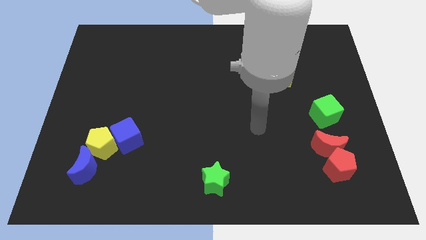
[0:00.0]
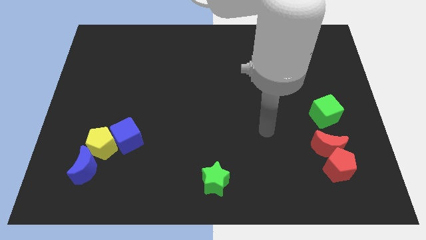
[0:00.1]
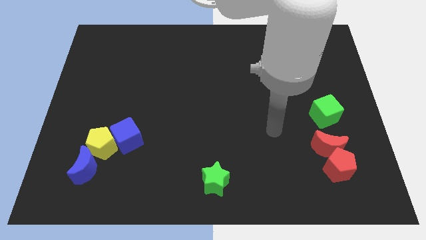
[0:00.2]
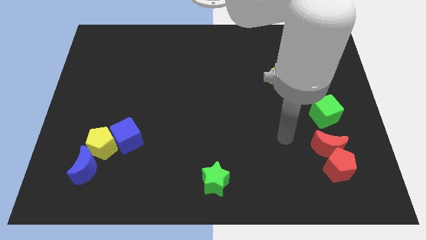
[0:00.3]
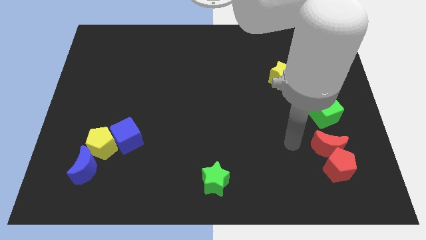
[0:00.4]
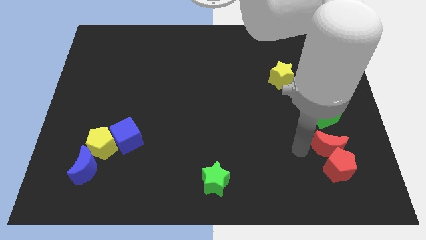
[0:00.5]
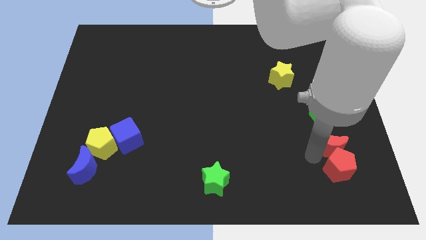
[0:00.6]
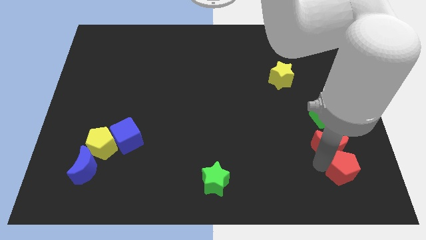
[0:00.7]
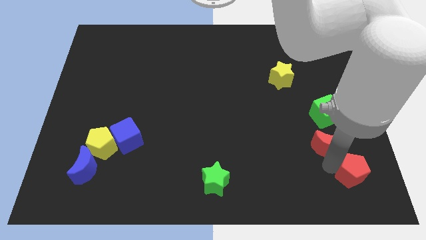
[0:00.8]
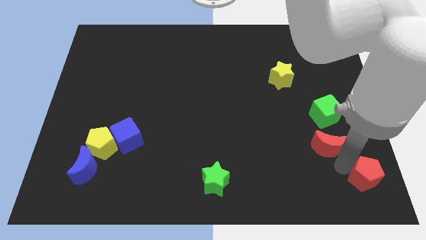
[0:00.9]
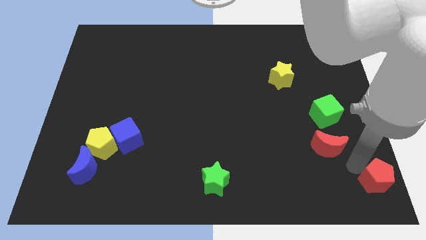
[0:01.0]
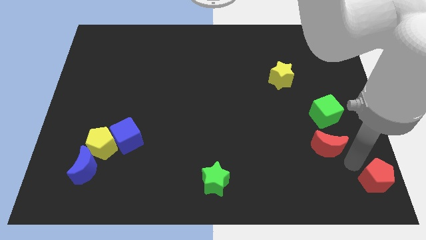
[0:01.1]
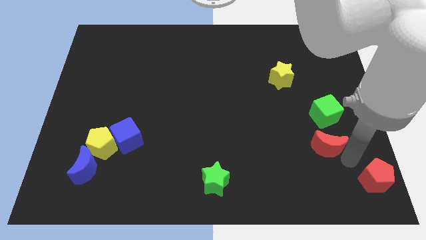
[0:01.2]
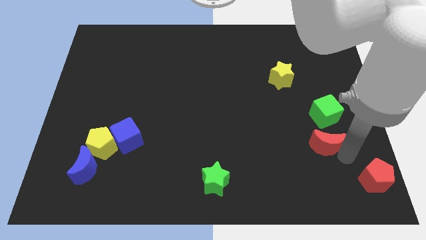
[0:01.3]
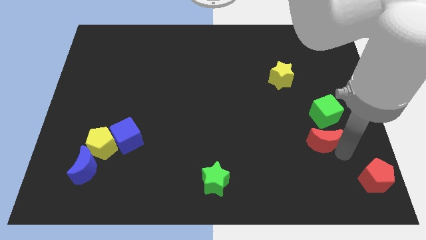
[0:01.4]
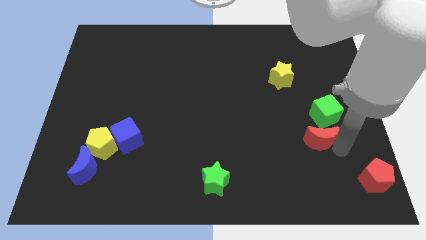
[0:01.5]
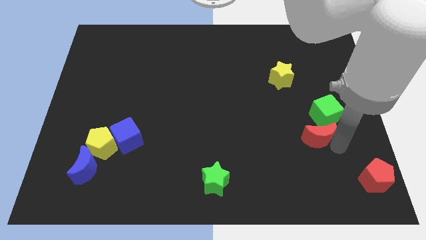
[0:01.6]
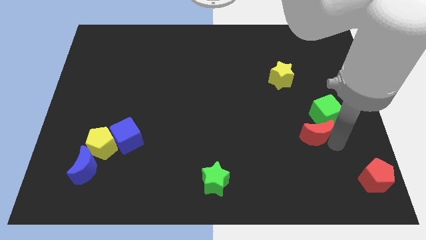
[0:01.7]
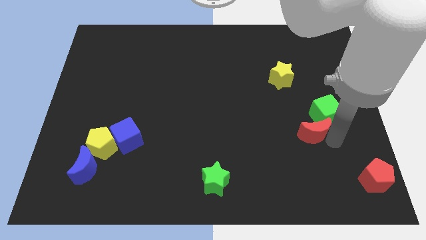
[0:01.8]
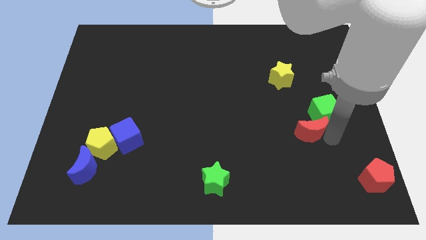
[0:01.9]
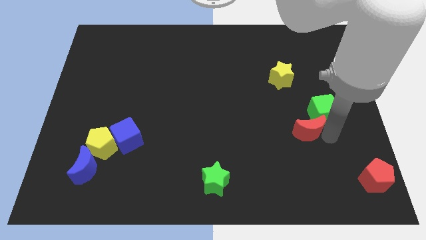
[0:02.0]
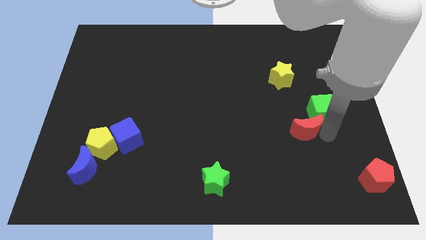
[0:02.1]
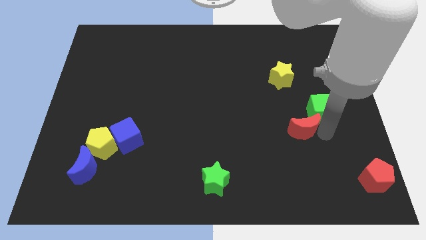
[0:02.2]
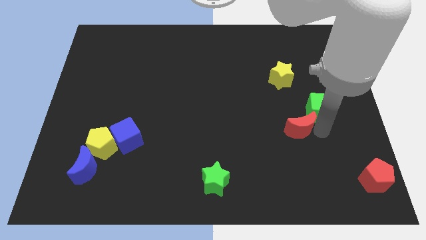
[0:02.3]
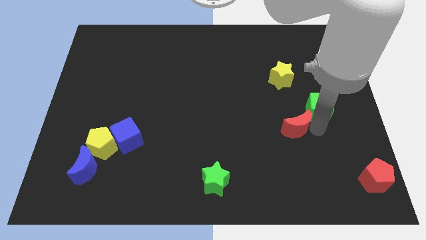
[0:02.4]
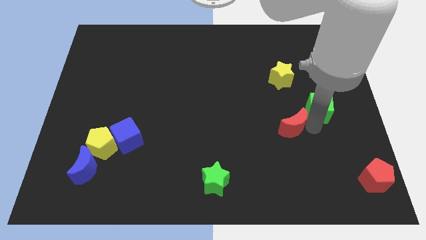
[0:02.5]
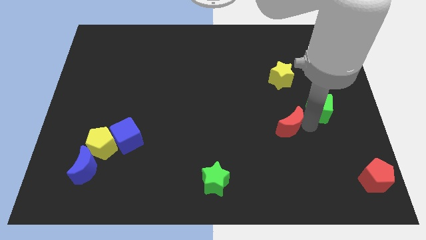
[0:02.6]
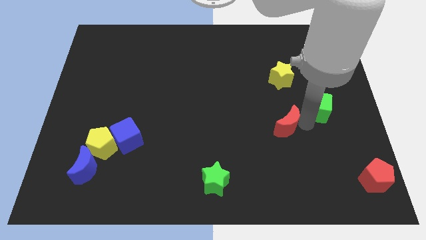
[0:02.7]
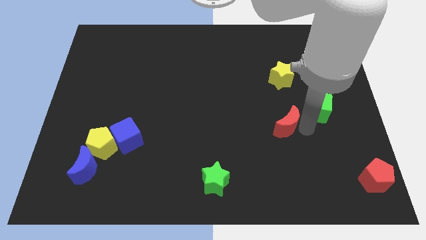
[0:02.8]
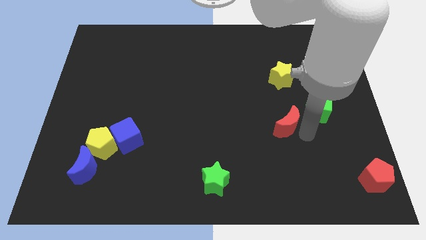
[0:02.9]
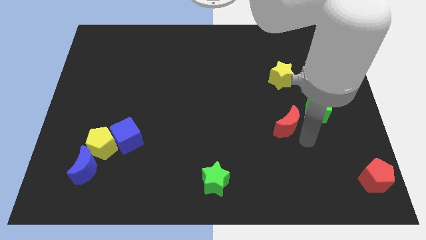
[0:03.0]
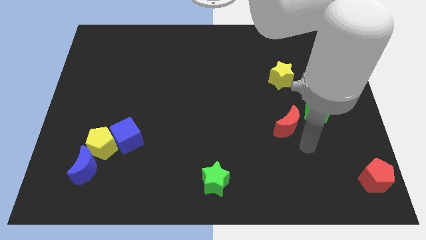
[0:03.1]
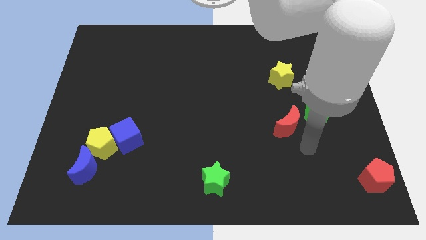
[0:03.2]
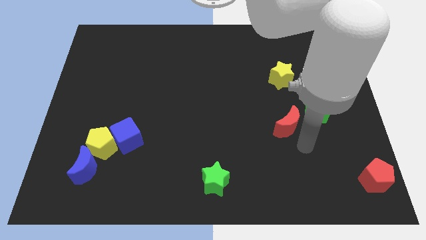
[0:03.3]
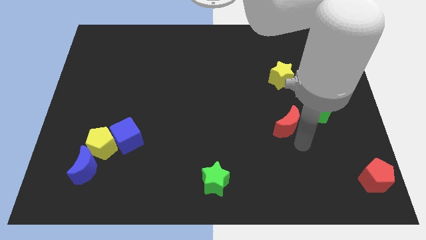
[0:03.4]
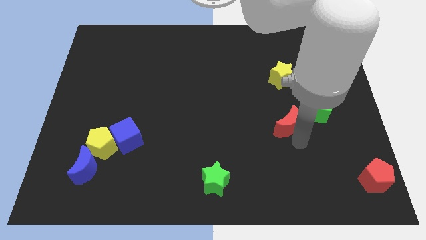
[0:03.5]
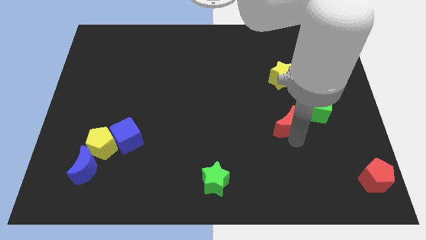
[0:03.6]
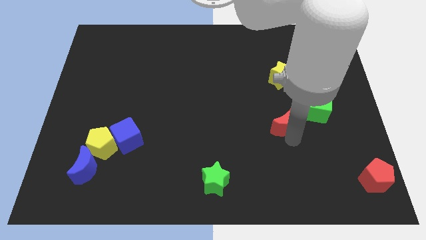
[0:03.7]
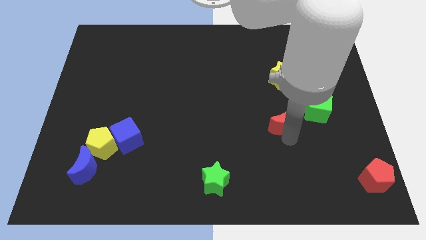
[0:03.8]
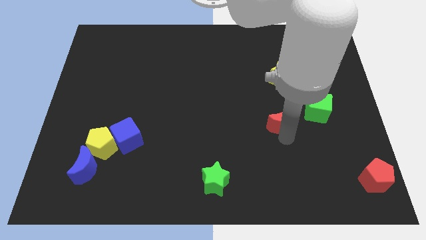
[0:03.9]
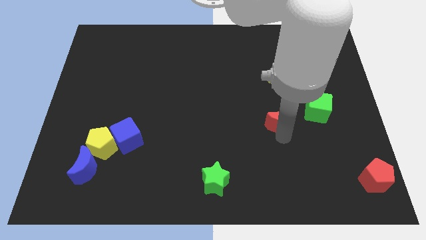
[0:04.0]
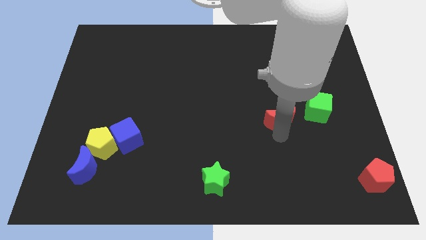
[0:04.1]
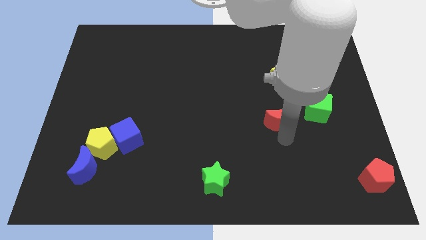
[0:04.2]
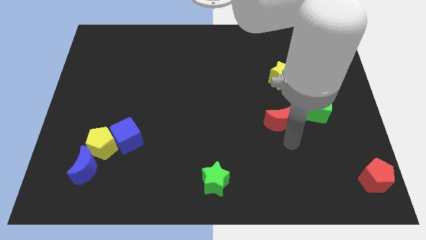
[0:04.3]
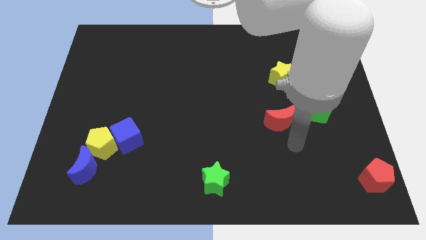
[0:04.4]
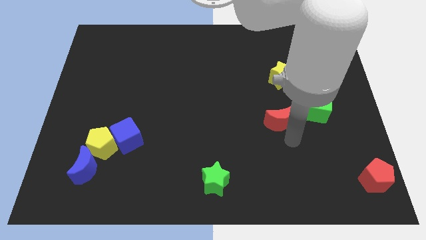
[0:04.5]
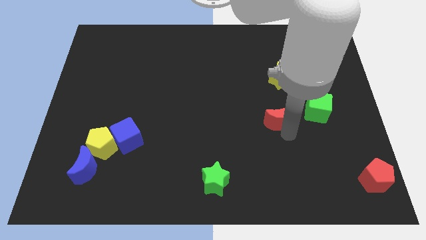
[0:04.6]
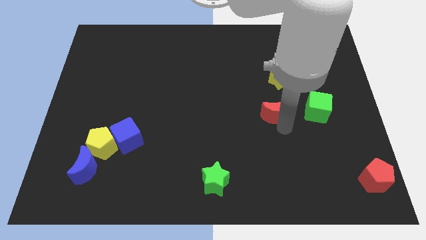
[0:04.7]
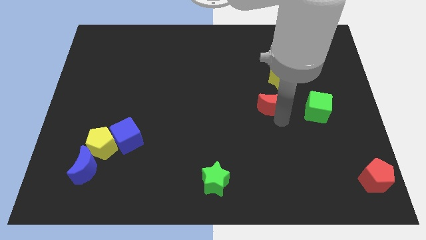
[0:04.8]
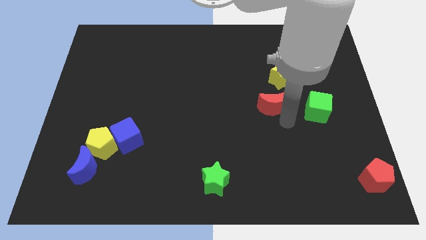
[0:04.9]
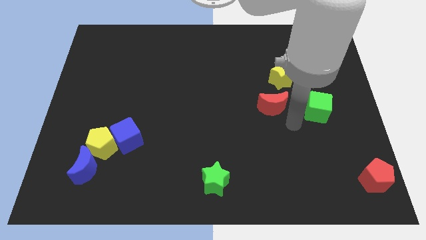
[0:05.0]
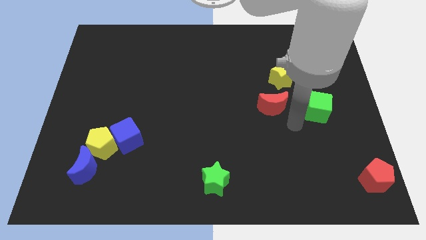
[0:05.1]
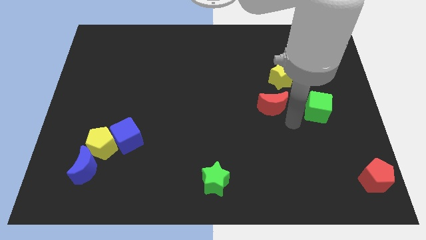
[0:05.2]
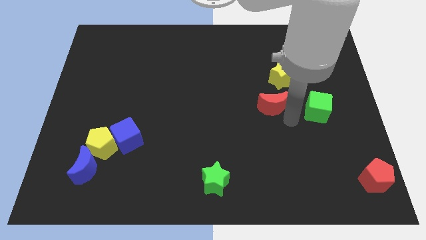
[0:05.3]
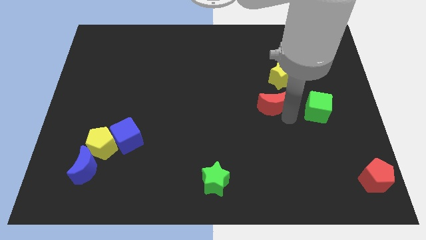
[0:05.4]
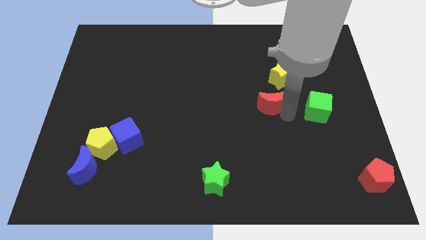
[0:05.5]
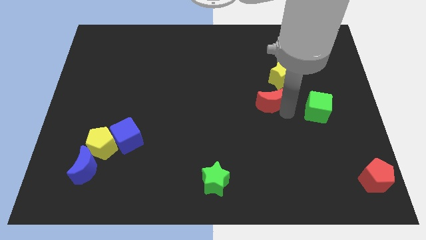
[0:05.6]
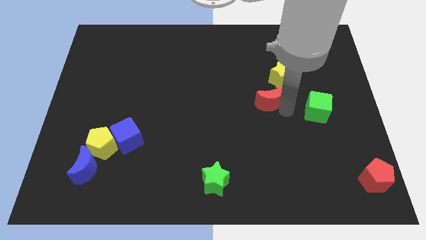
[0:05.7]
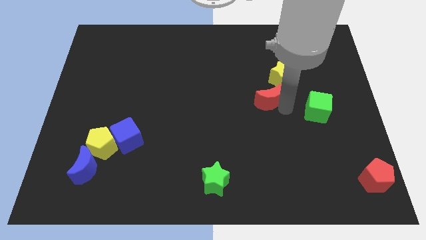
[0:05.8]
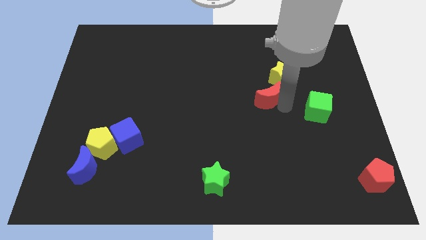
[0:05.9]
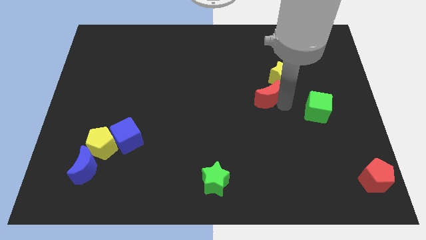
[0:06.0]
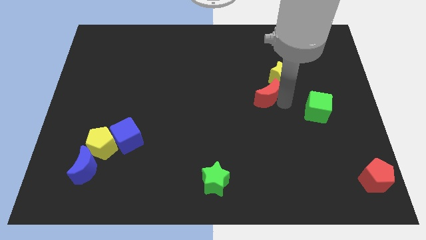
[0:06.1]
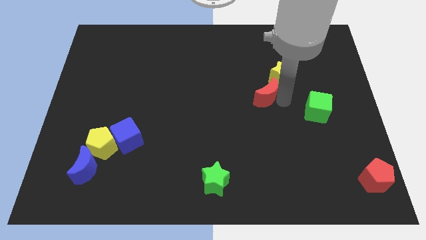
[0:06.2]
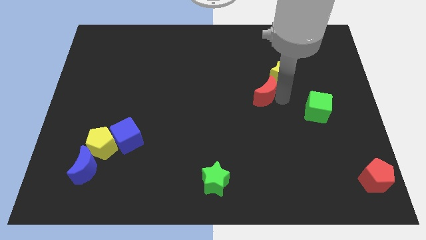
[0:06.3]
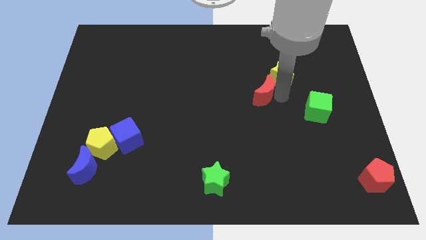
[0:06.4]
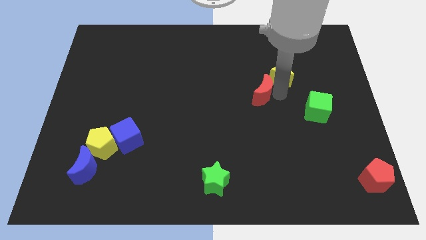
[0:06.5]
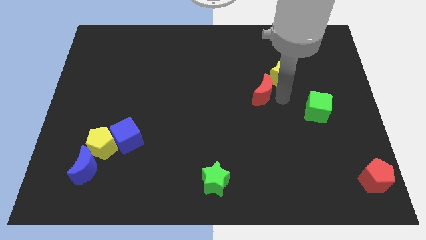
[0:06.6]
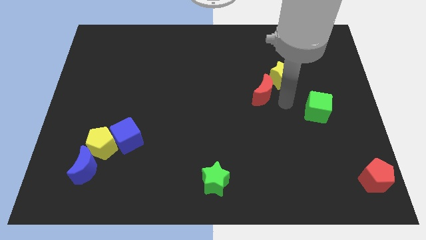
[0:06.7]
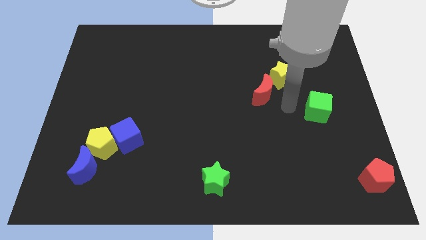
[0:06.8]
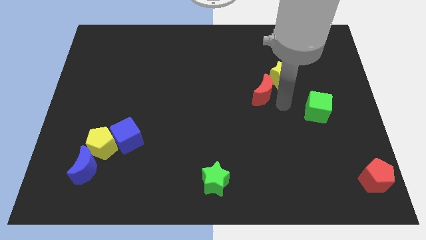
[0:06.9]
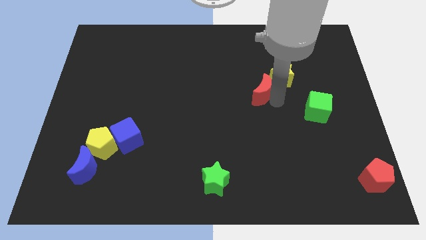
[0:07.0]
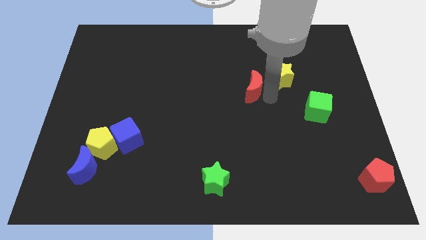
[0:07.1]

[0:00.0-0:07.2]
push the red moon up and to the left diagonally

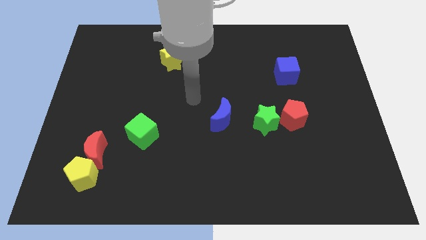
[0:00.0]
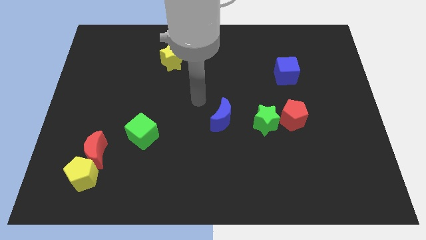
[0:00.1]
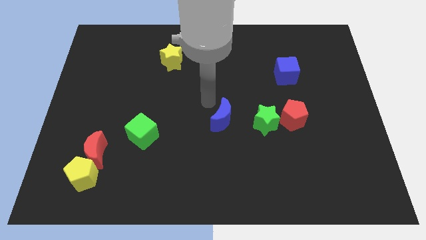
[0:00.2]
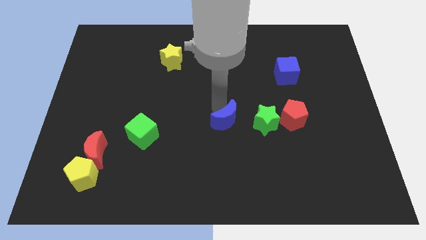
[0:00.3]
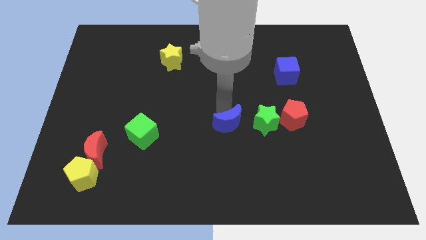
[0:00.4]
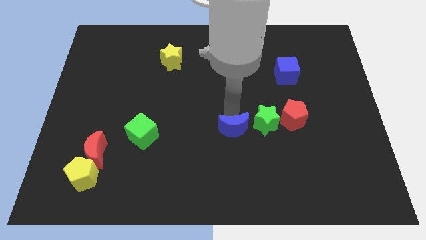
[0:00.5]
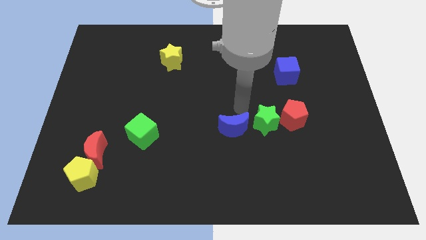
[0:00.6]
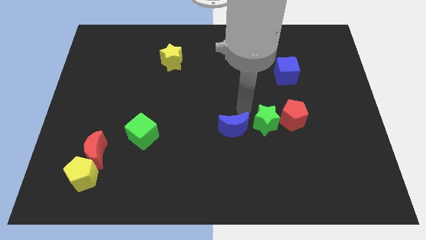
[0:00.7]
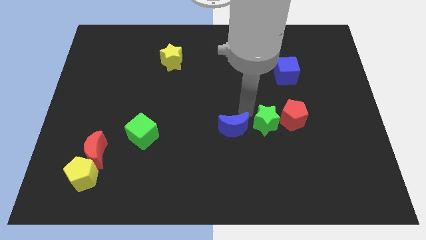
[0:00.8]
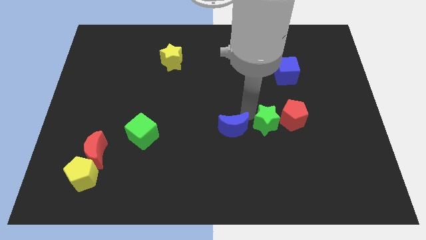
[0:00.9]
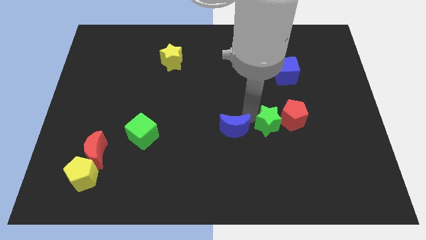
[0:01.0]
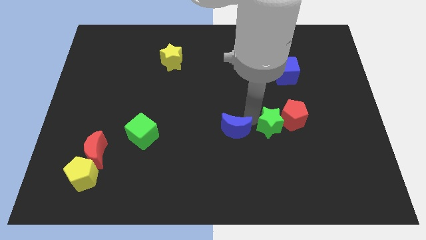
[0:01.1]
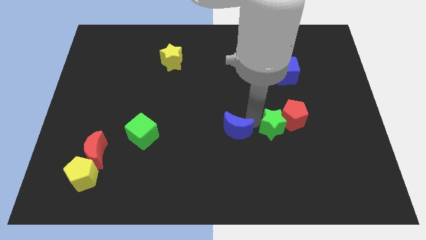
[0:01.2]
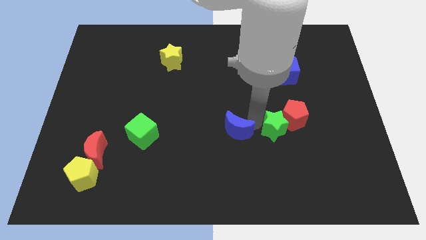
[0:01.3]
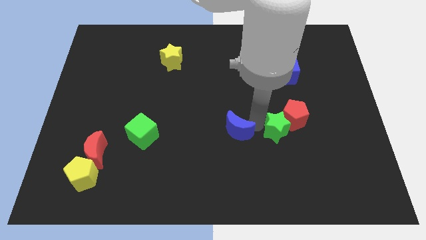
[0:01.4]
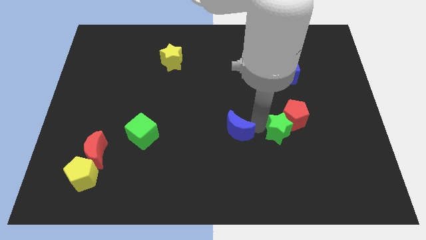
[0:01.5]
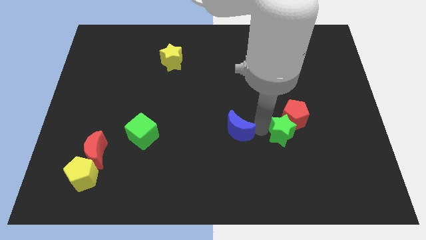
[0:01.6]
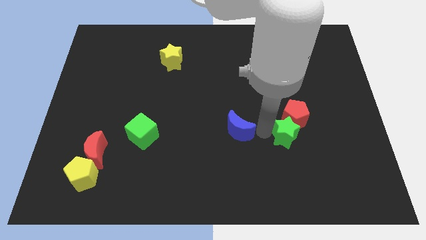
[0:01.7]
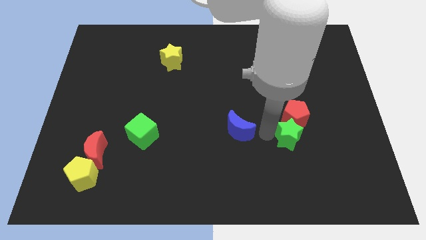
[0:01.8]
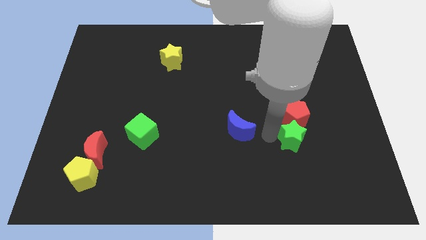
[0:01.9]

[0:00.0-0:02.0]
slightly move the green star diagonally down and right
